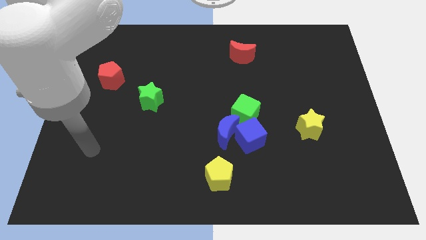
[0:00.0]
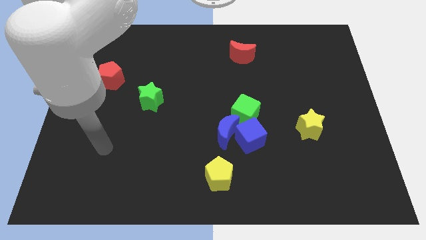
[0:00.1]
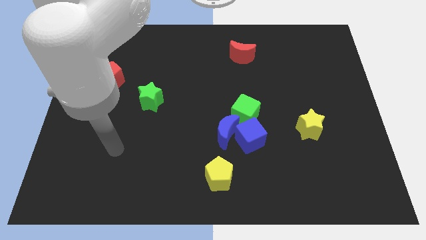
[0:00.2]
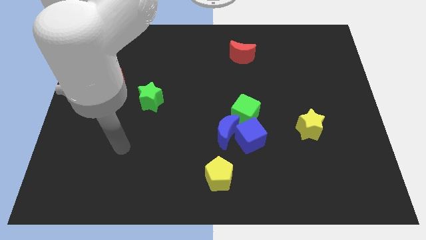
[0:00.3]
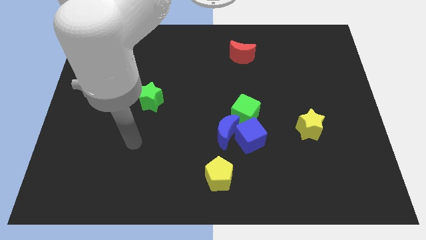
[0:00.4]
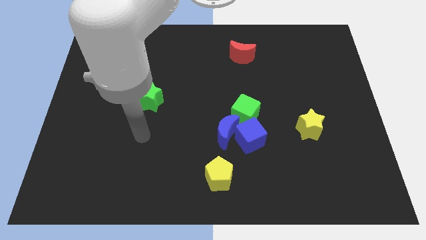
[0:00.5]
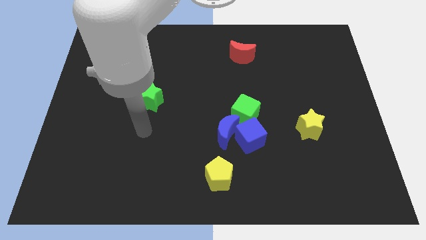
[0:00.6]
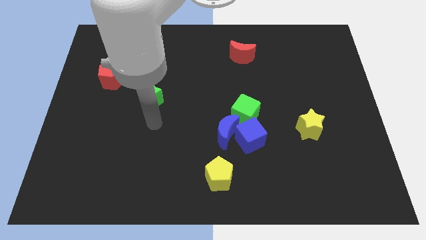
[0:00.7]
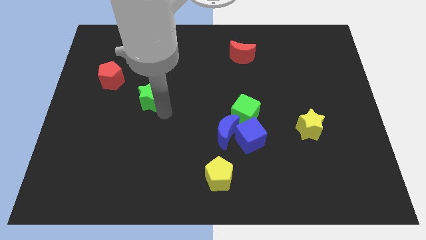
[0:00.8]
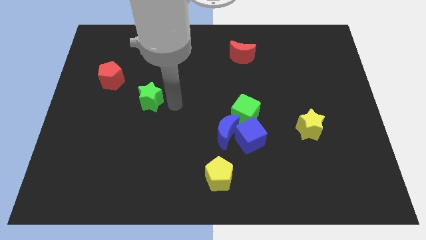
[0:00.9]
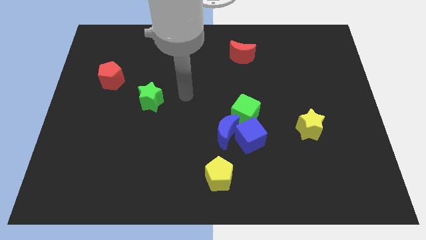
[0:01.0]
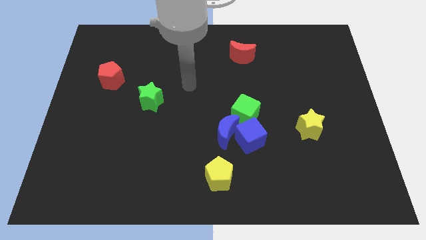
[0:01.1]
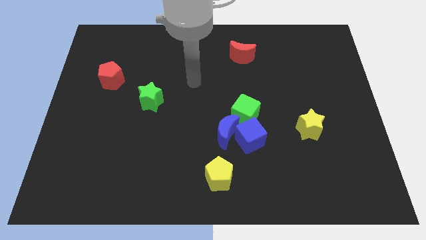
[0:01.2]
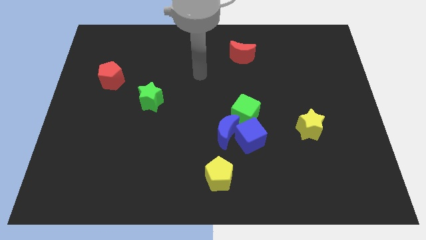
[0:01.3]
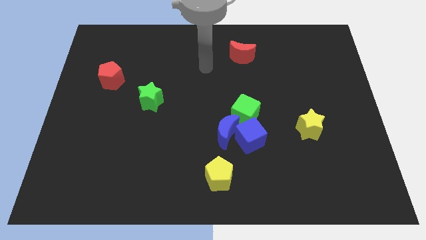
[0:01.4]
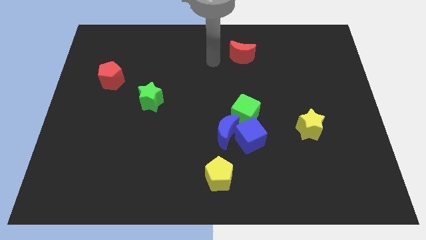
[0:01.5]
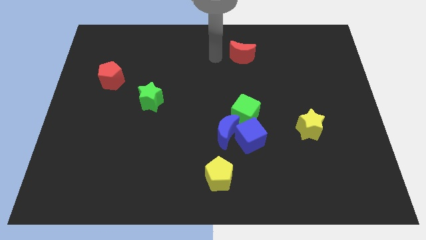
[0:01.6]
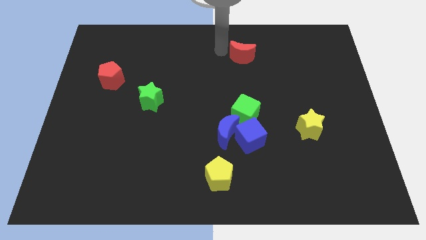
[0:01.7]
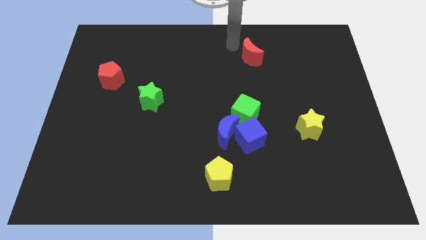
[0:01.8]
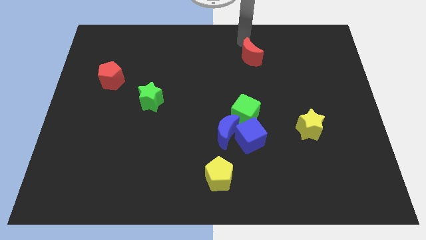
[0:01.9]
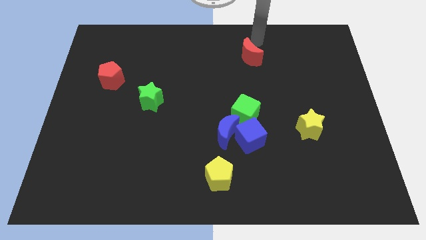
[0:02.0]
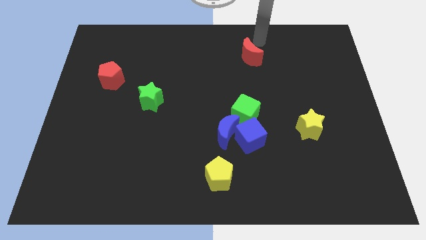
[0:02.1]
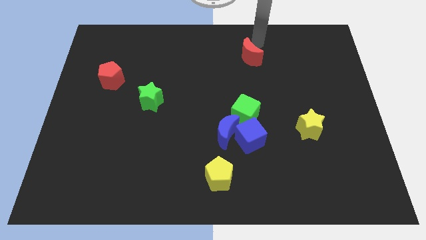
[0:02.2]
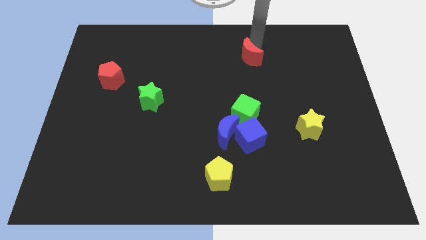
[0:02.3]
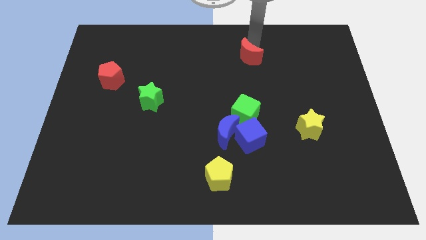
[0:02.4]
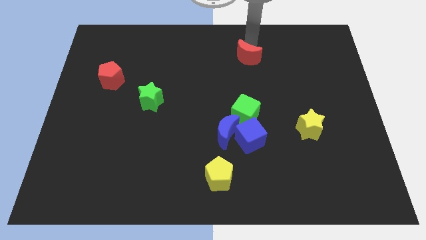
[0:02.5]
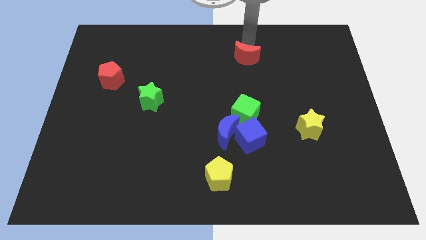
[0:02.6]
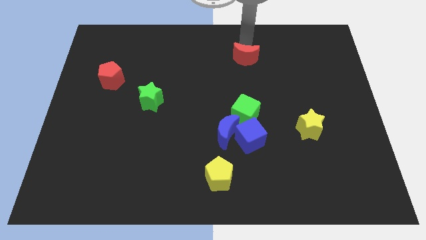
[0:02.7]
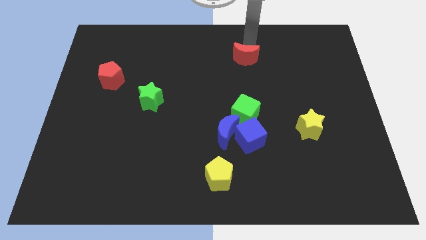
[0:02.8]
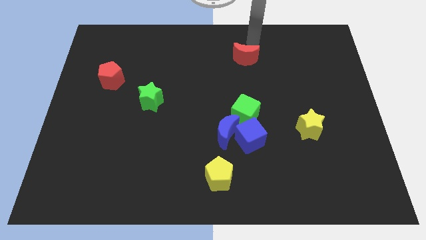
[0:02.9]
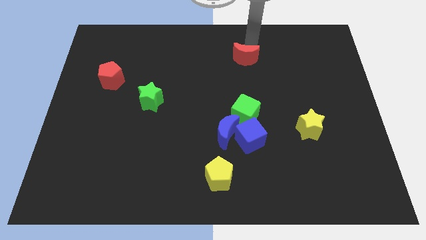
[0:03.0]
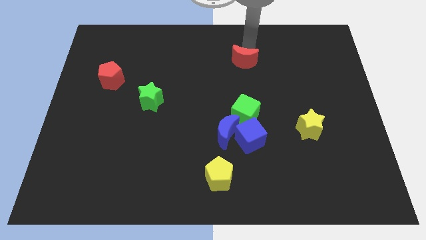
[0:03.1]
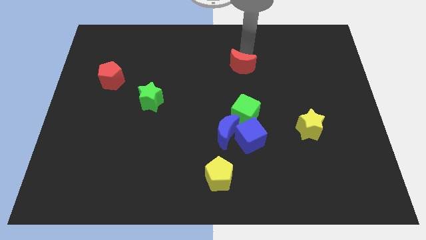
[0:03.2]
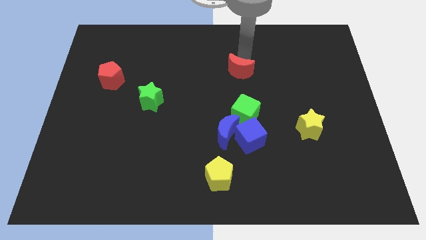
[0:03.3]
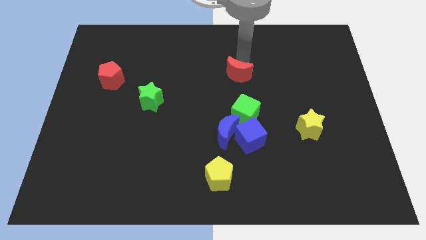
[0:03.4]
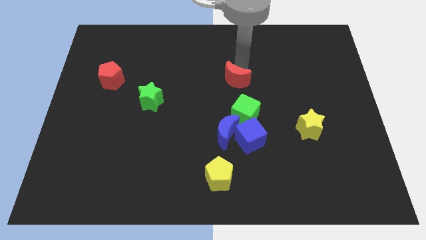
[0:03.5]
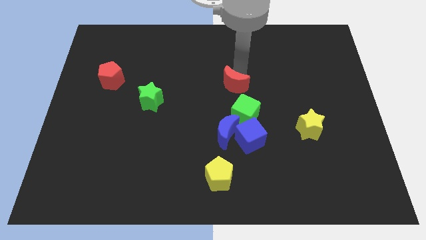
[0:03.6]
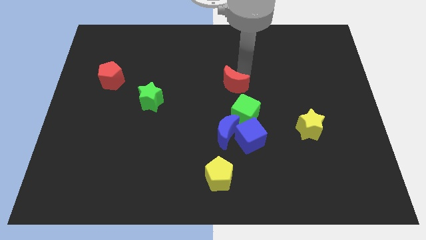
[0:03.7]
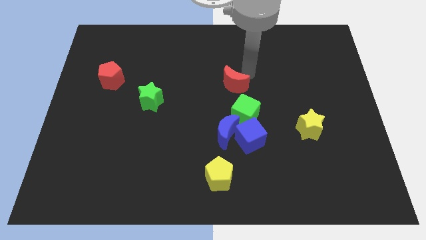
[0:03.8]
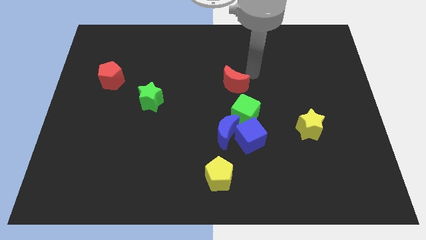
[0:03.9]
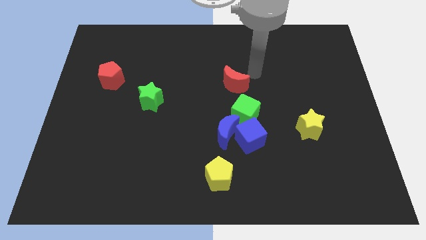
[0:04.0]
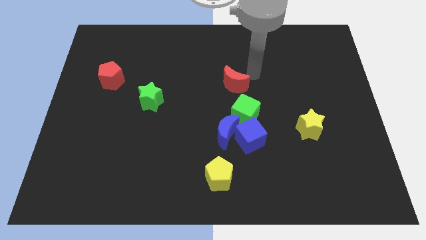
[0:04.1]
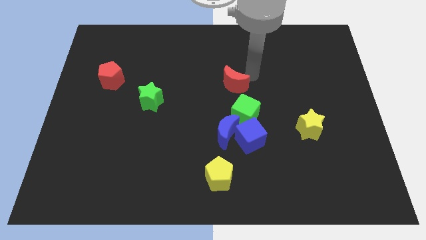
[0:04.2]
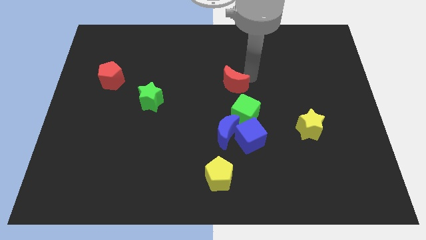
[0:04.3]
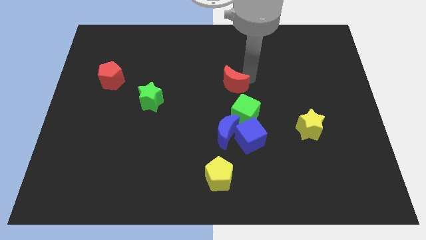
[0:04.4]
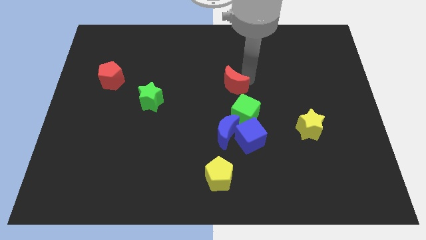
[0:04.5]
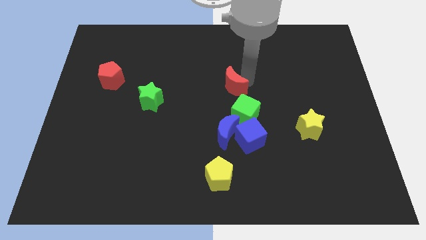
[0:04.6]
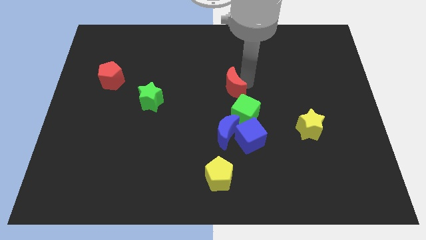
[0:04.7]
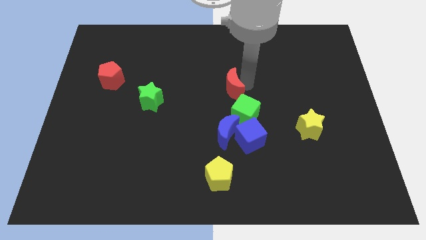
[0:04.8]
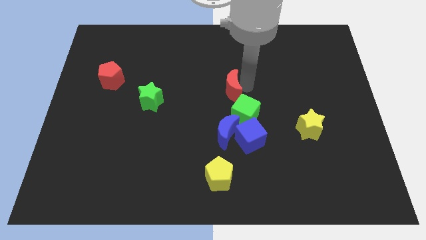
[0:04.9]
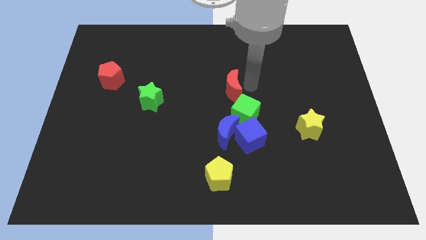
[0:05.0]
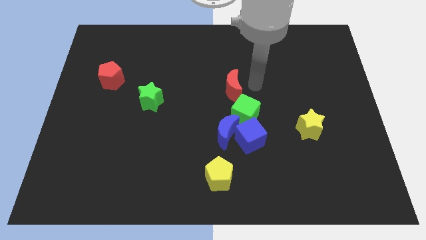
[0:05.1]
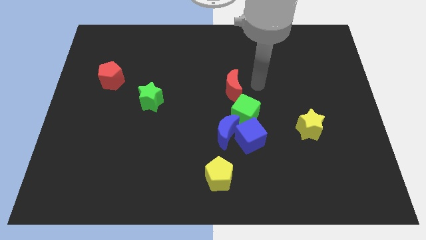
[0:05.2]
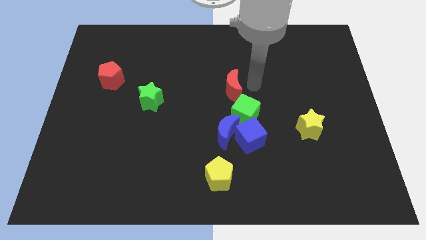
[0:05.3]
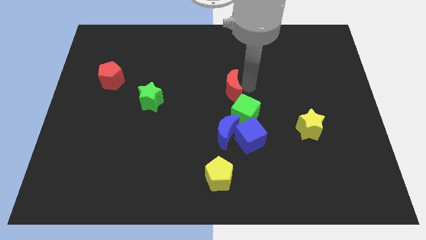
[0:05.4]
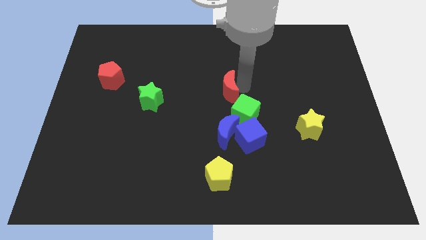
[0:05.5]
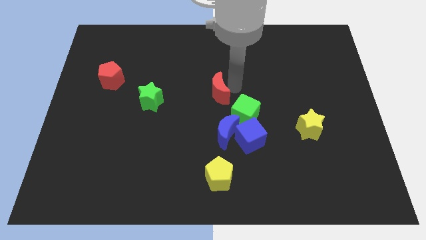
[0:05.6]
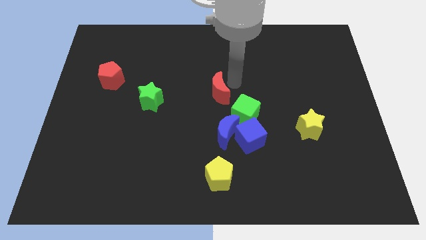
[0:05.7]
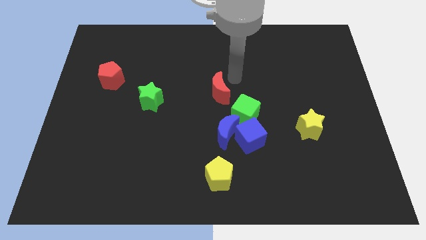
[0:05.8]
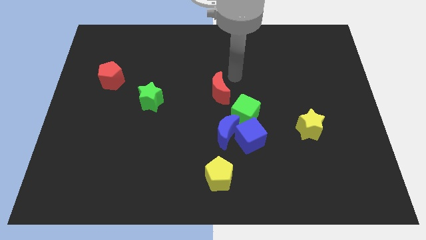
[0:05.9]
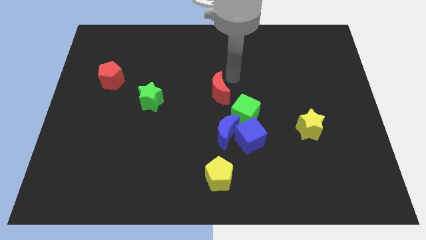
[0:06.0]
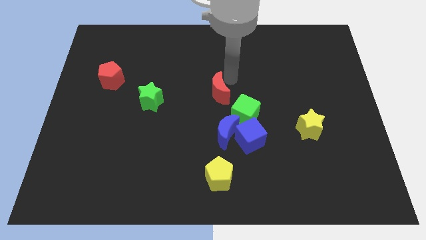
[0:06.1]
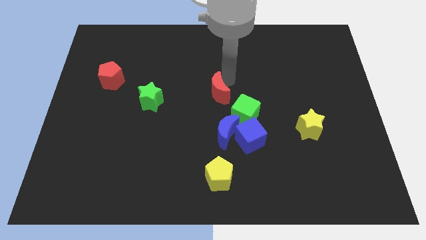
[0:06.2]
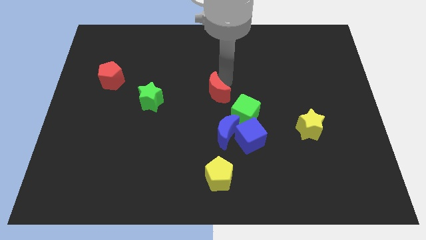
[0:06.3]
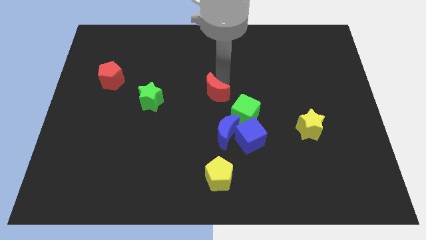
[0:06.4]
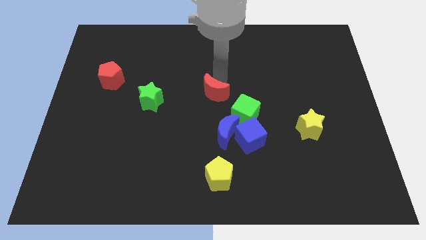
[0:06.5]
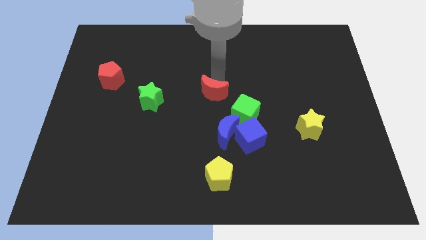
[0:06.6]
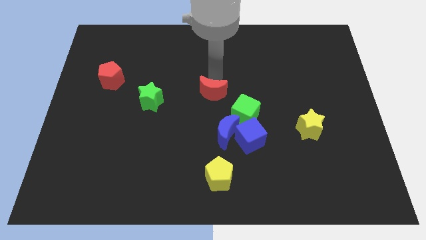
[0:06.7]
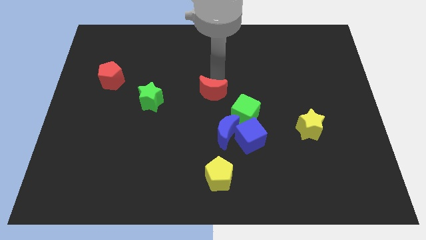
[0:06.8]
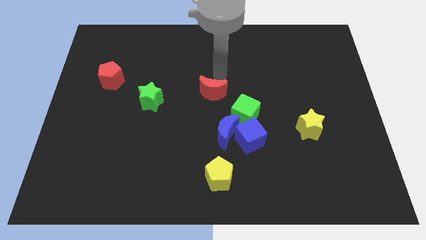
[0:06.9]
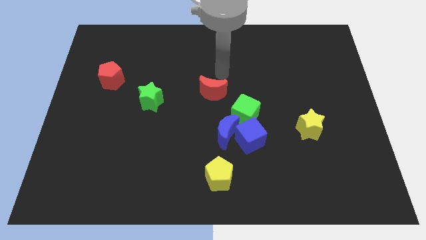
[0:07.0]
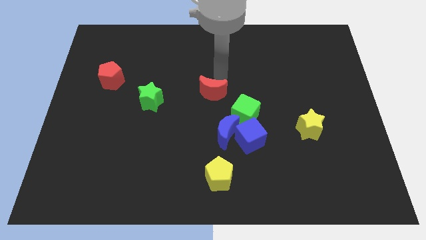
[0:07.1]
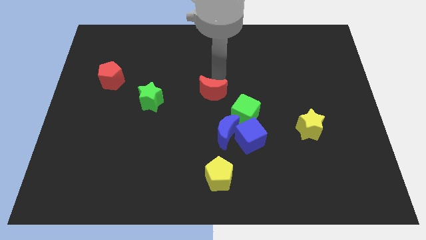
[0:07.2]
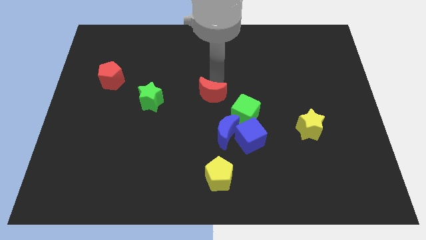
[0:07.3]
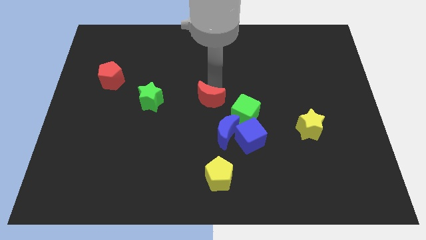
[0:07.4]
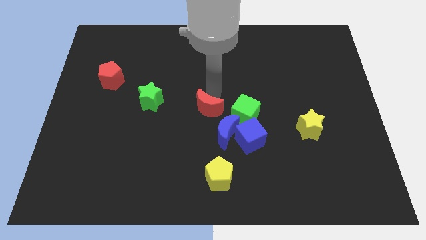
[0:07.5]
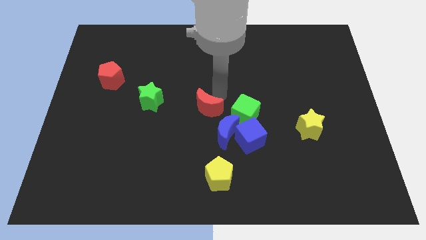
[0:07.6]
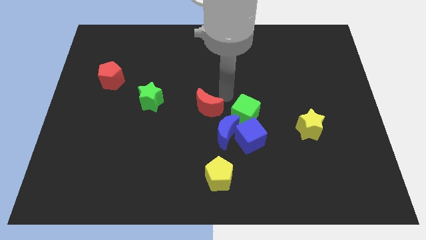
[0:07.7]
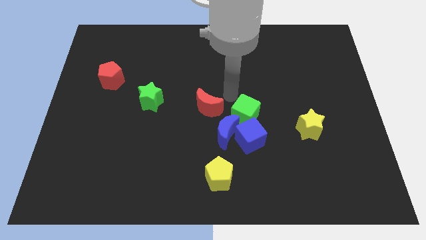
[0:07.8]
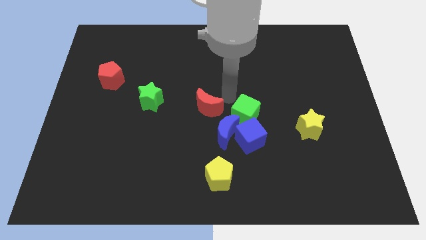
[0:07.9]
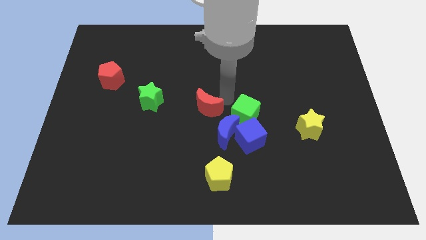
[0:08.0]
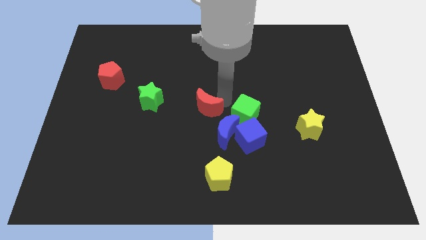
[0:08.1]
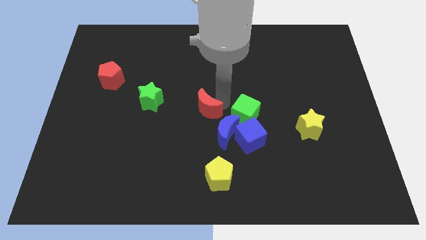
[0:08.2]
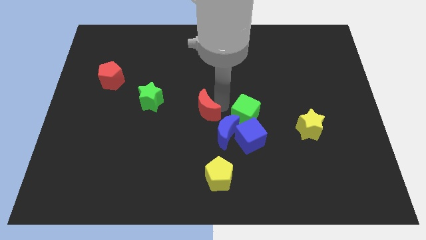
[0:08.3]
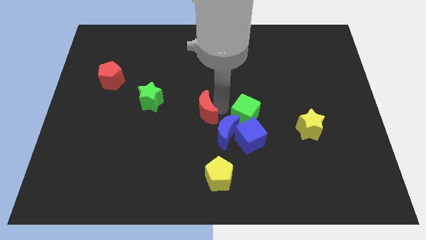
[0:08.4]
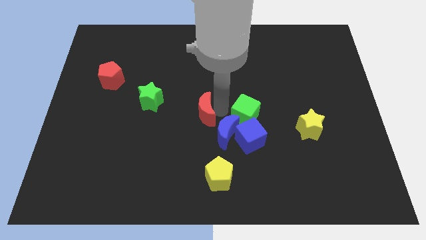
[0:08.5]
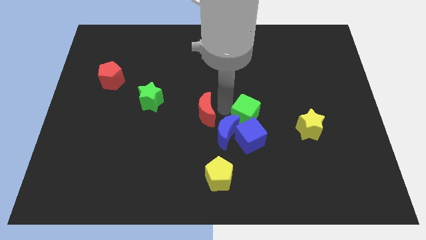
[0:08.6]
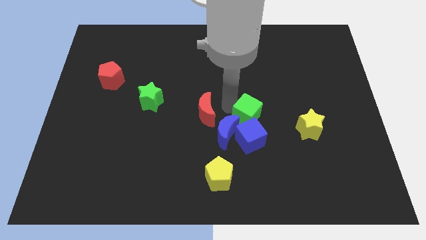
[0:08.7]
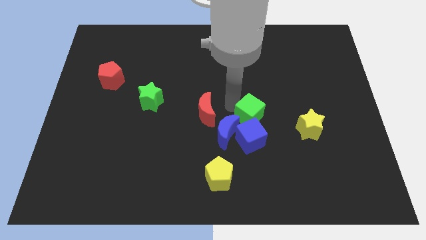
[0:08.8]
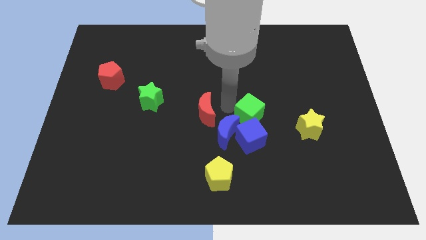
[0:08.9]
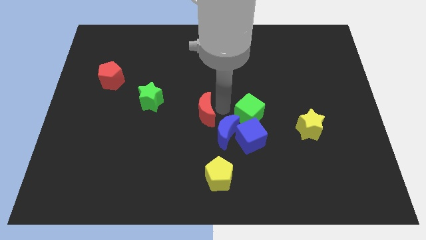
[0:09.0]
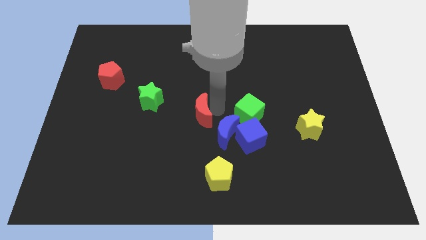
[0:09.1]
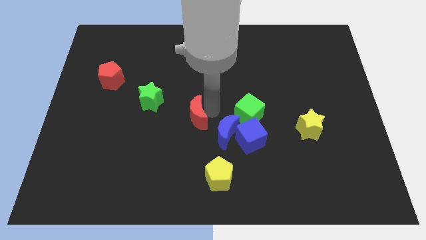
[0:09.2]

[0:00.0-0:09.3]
push the red moon left of the blue moon
